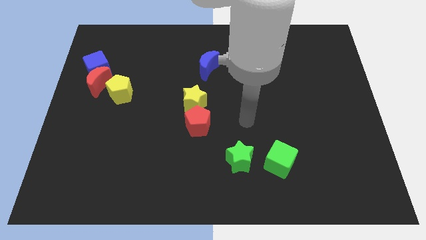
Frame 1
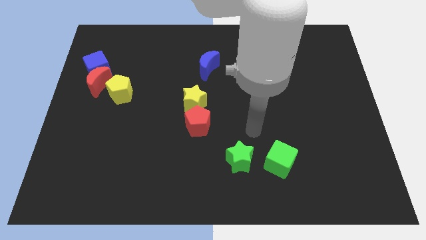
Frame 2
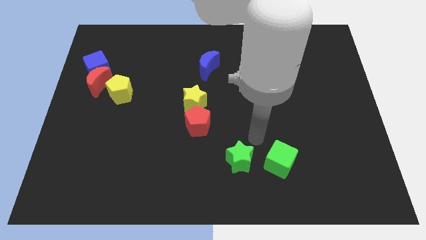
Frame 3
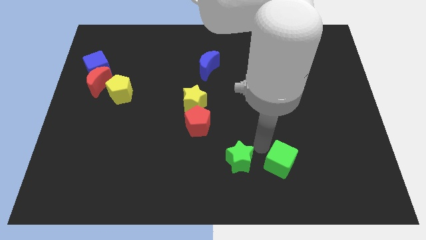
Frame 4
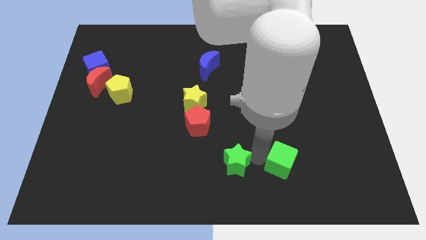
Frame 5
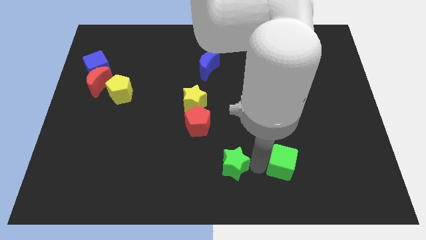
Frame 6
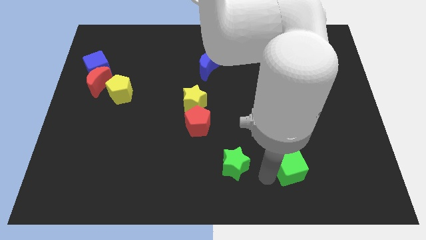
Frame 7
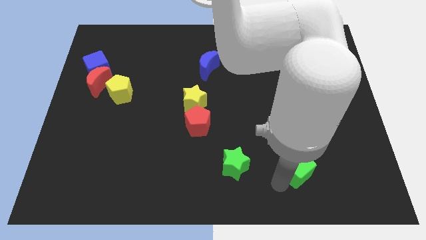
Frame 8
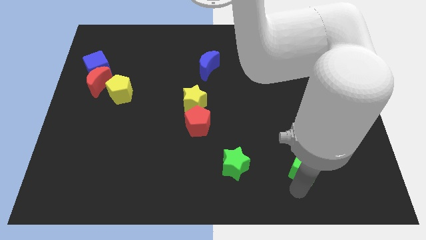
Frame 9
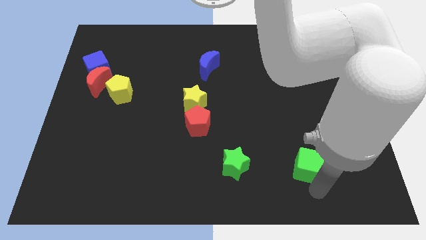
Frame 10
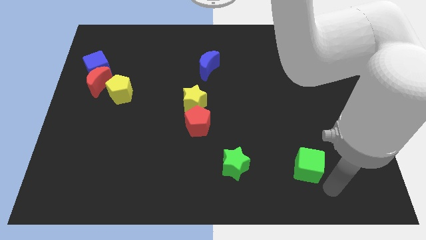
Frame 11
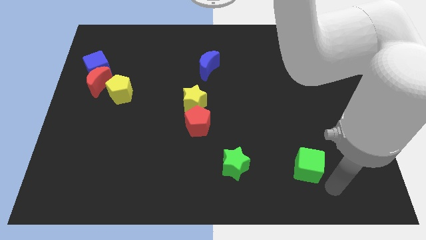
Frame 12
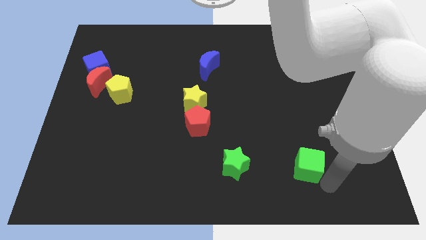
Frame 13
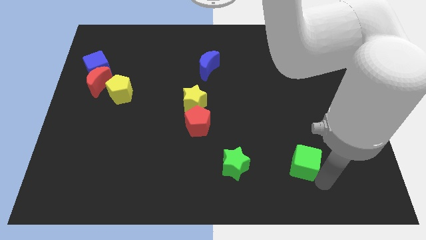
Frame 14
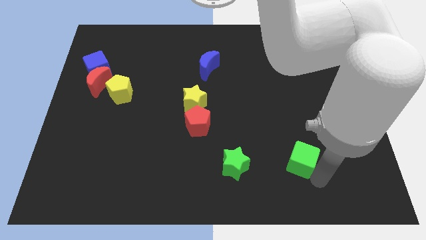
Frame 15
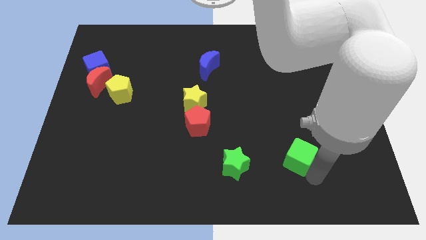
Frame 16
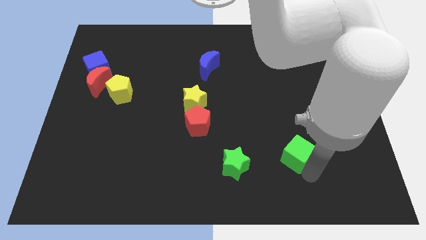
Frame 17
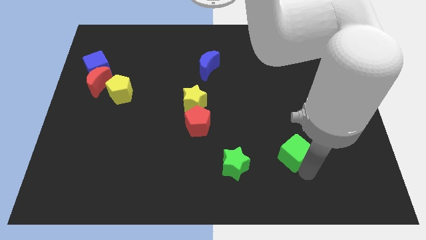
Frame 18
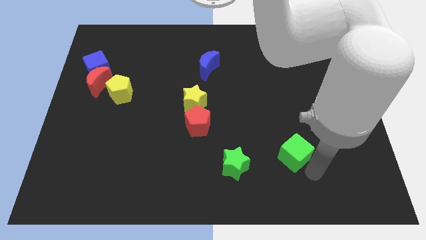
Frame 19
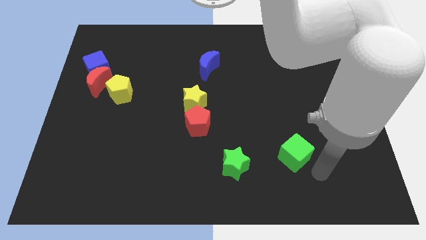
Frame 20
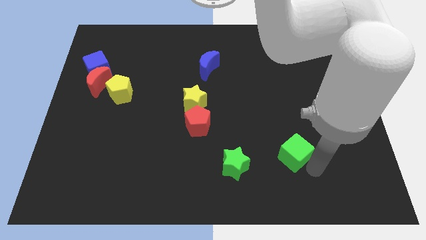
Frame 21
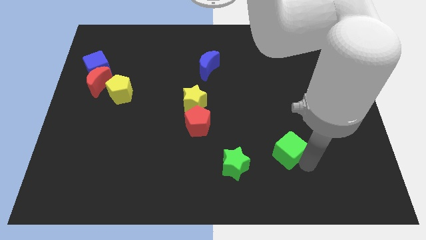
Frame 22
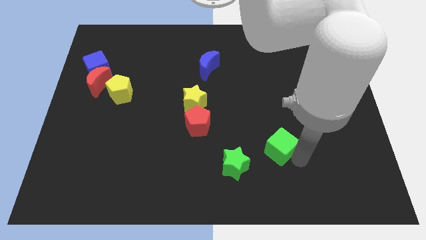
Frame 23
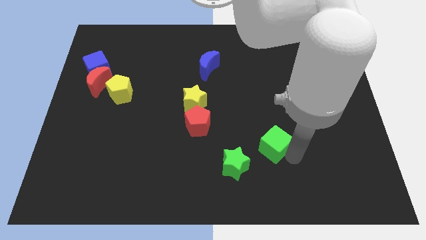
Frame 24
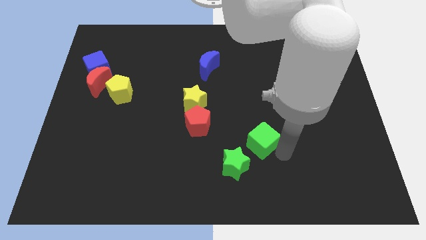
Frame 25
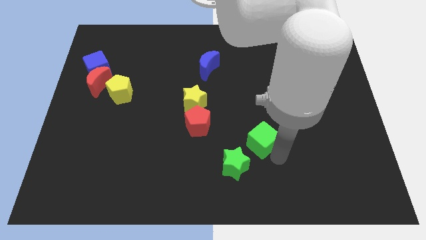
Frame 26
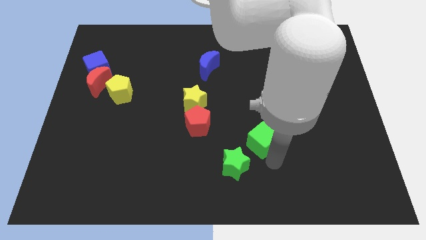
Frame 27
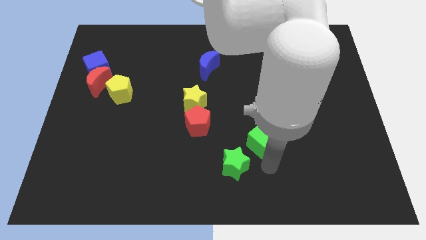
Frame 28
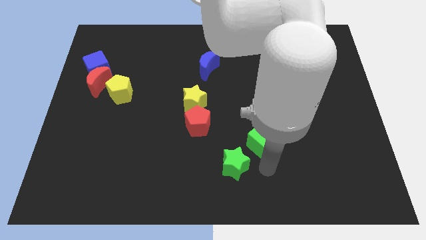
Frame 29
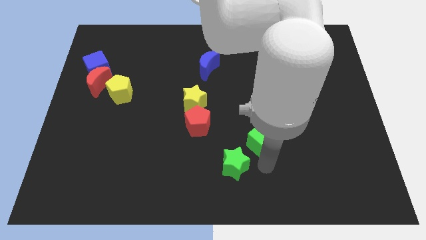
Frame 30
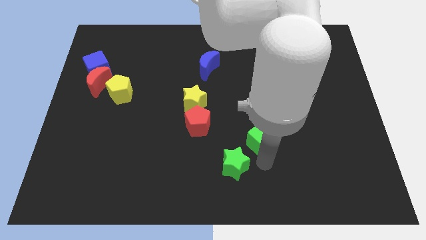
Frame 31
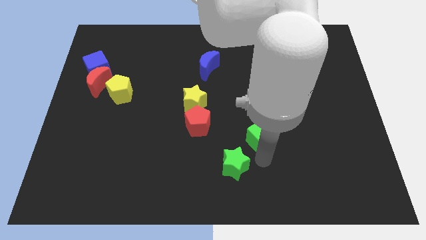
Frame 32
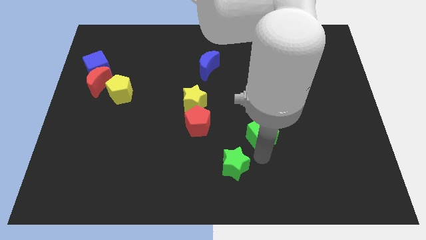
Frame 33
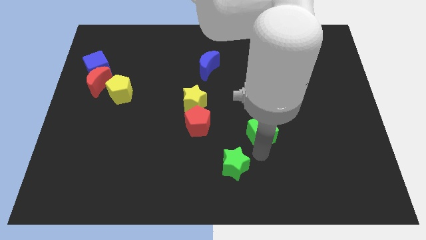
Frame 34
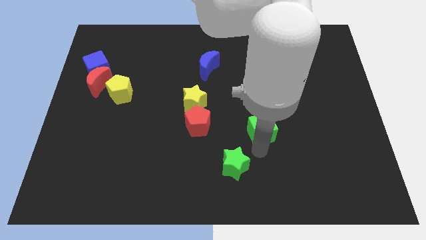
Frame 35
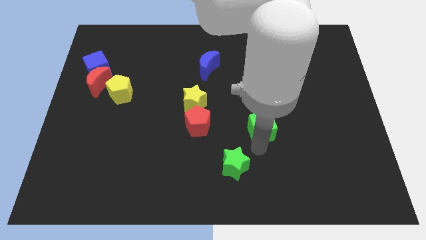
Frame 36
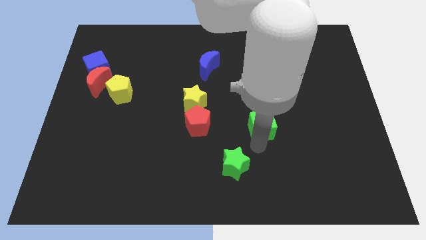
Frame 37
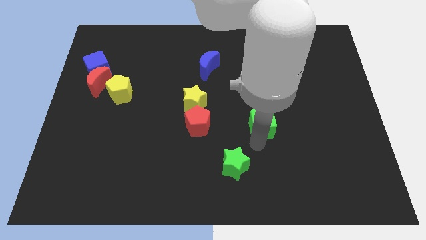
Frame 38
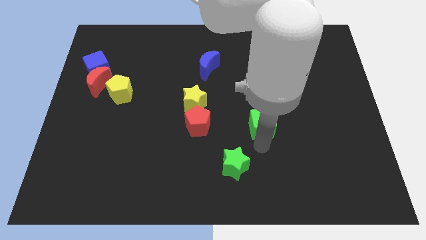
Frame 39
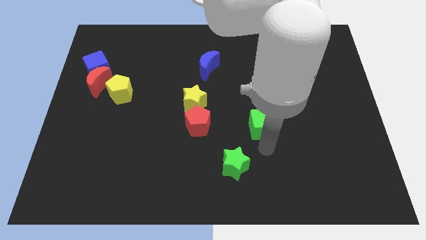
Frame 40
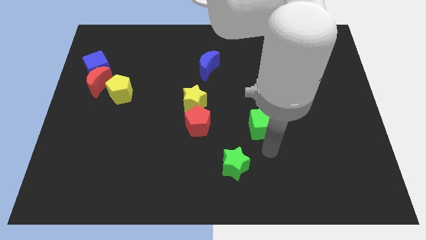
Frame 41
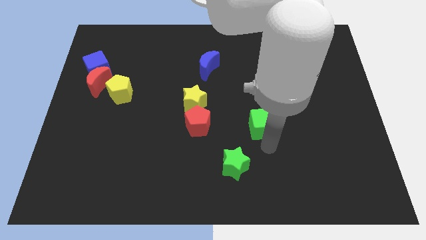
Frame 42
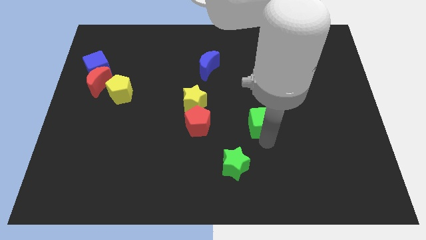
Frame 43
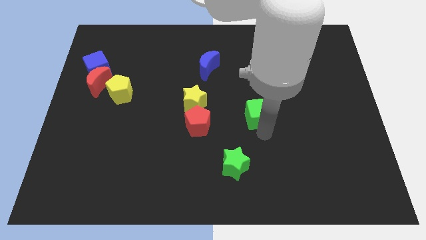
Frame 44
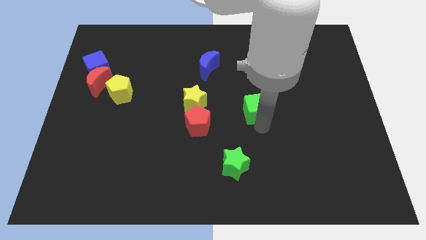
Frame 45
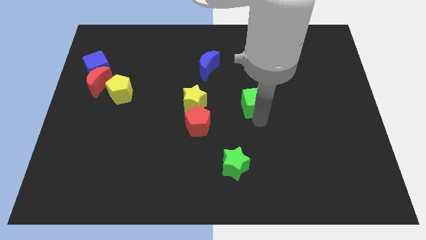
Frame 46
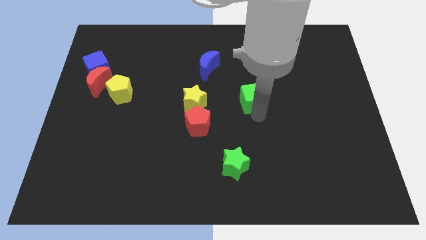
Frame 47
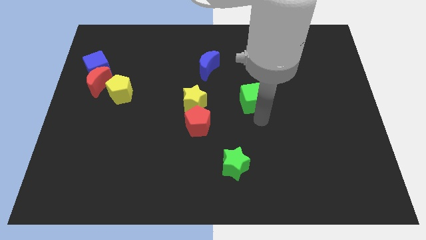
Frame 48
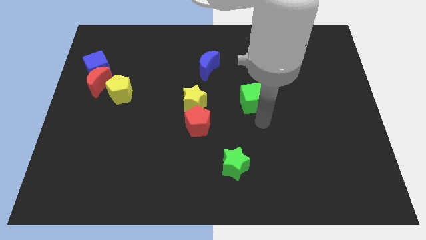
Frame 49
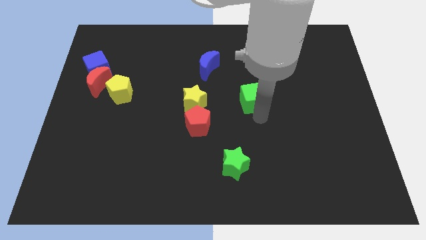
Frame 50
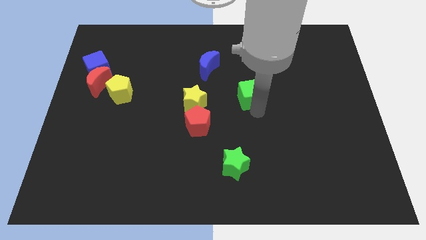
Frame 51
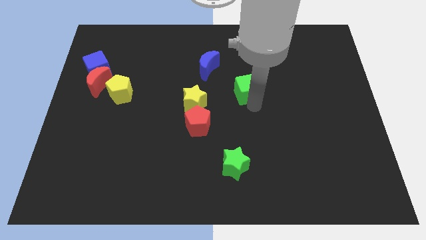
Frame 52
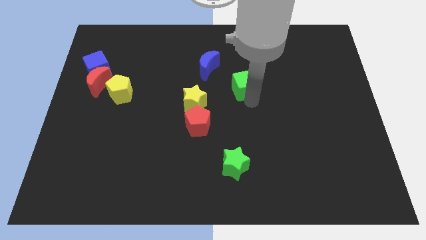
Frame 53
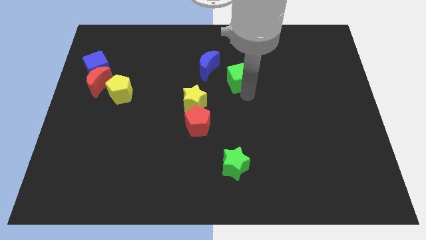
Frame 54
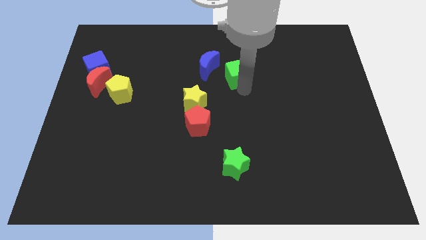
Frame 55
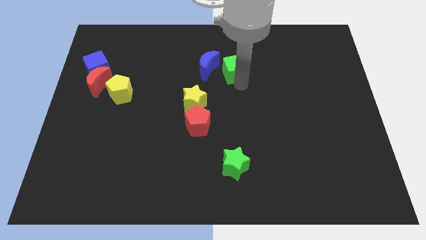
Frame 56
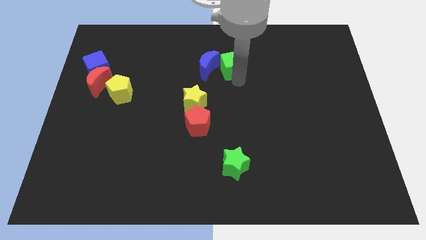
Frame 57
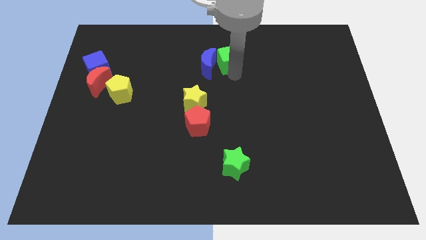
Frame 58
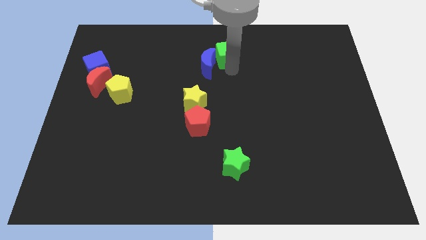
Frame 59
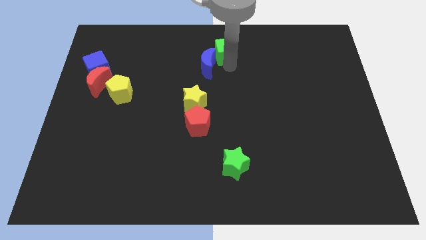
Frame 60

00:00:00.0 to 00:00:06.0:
slide the green cube to the top
